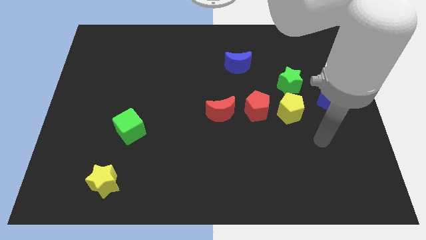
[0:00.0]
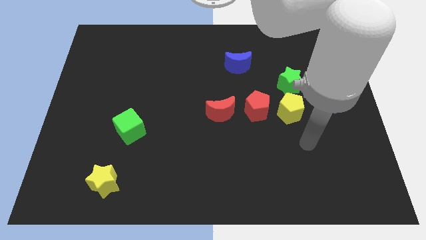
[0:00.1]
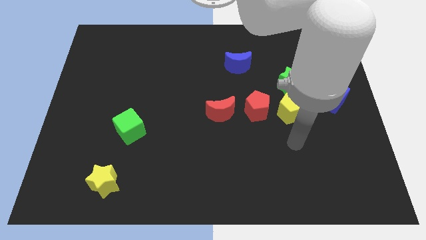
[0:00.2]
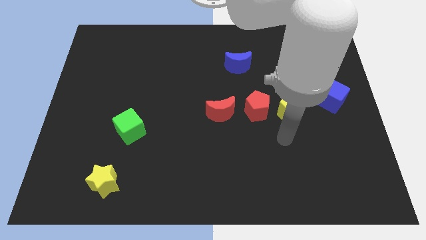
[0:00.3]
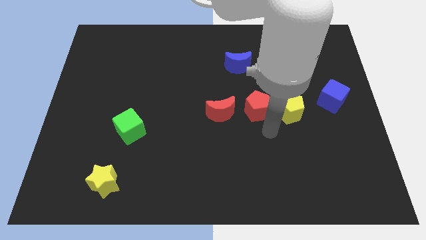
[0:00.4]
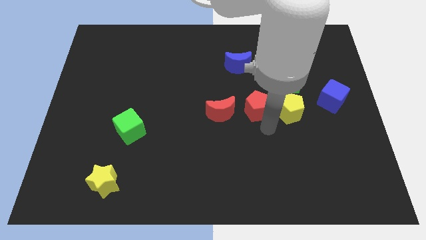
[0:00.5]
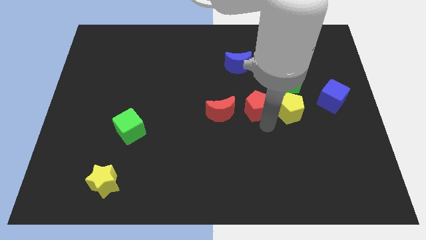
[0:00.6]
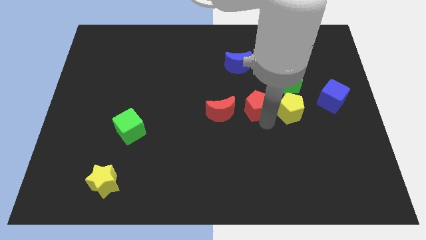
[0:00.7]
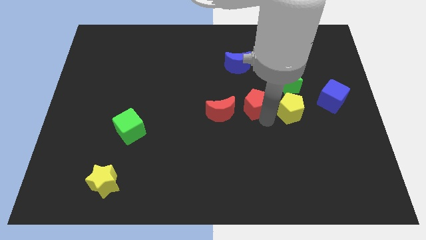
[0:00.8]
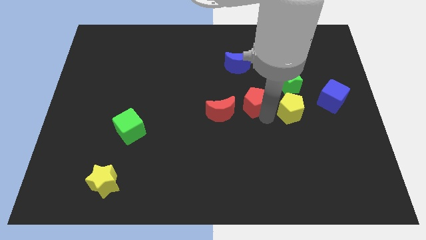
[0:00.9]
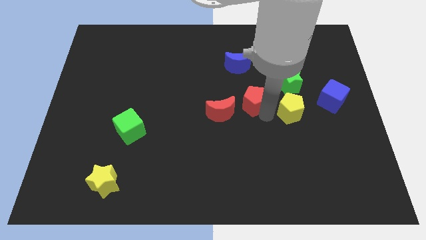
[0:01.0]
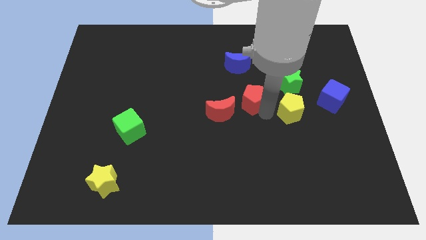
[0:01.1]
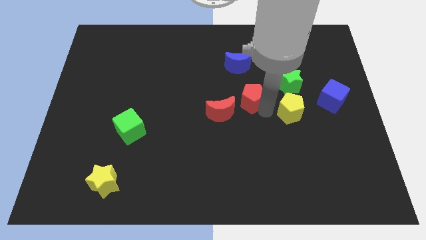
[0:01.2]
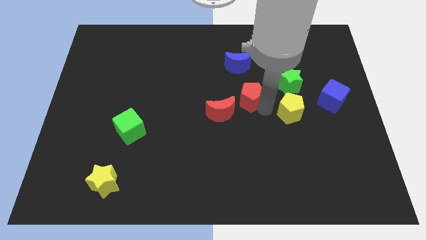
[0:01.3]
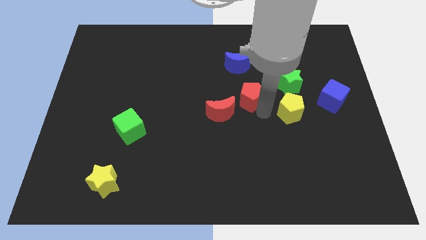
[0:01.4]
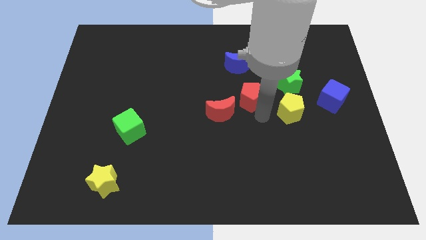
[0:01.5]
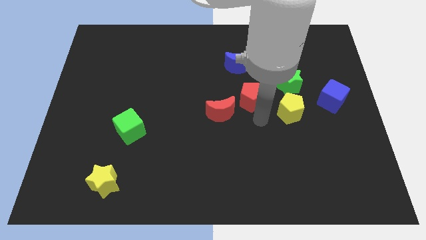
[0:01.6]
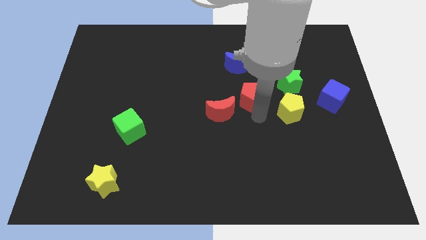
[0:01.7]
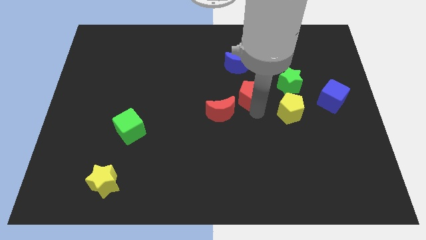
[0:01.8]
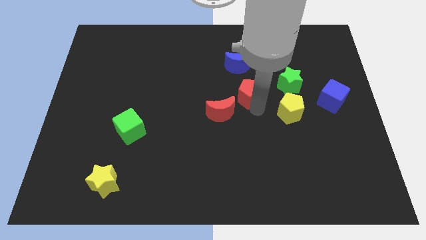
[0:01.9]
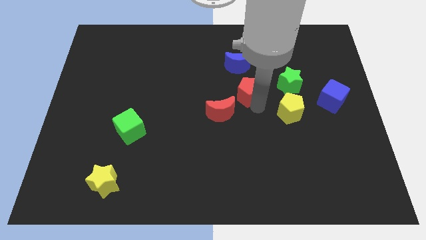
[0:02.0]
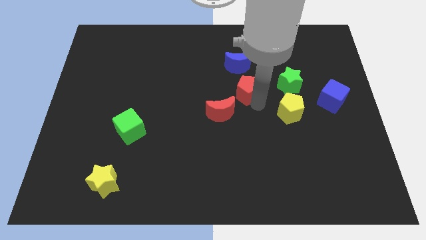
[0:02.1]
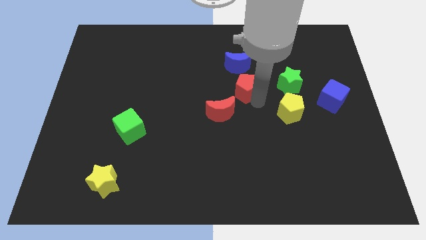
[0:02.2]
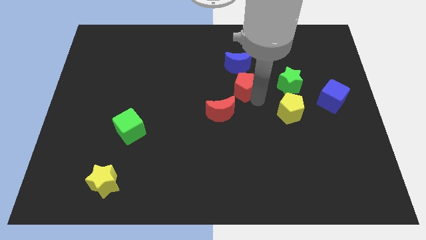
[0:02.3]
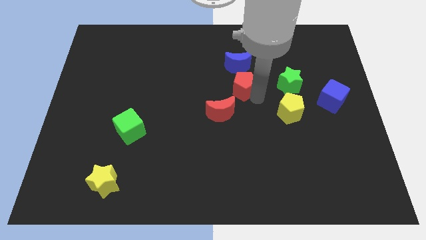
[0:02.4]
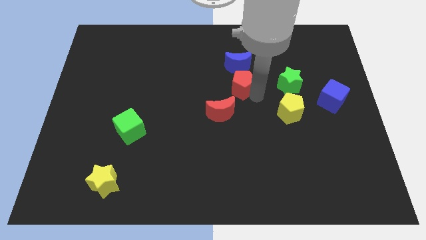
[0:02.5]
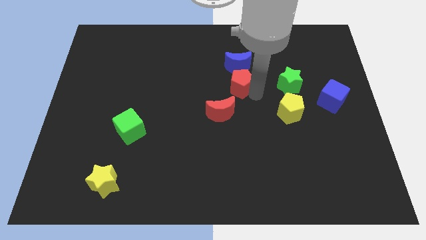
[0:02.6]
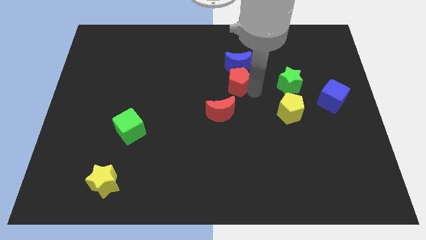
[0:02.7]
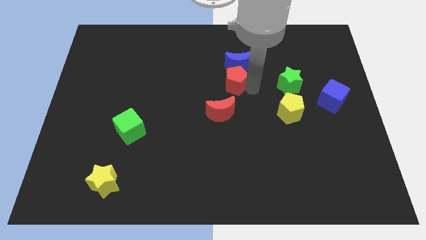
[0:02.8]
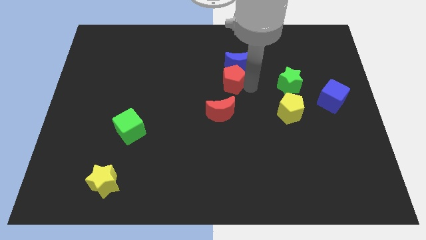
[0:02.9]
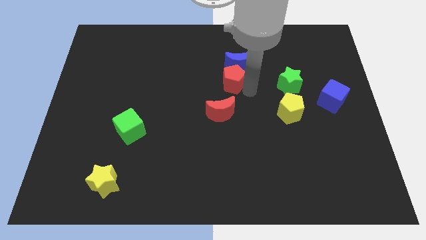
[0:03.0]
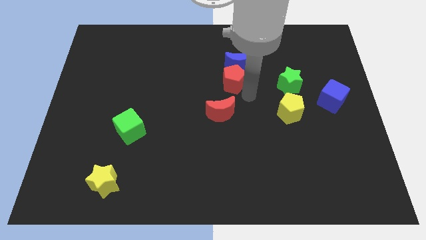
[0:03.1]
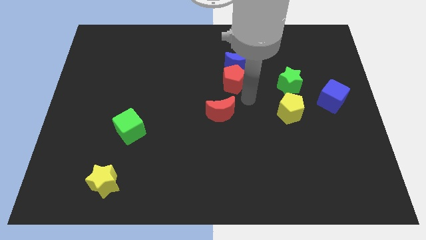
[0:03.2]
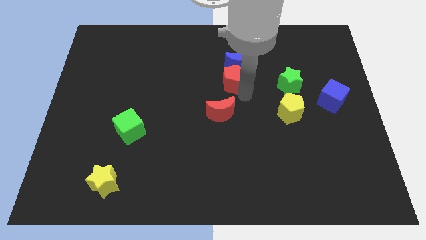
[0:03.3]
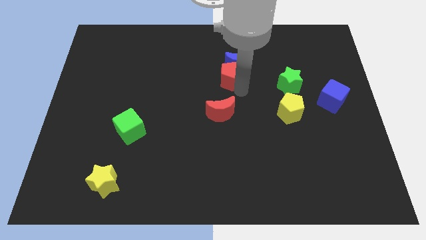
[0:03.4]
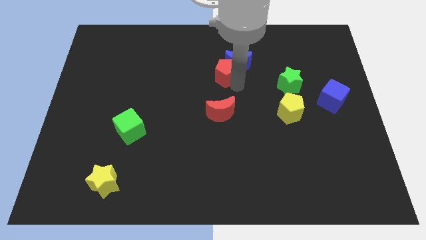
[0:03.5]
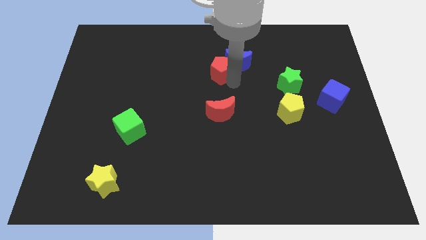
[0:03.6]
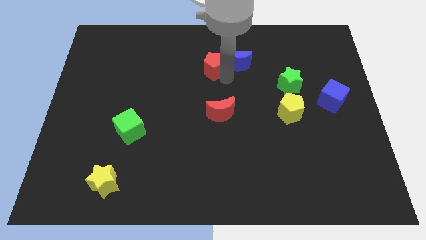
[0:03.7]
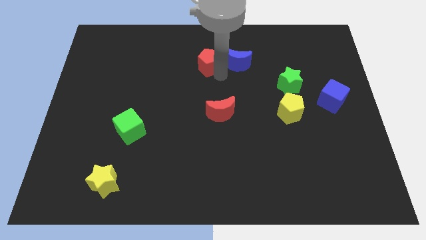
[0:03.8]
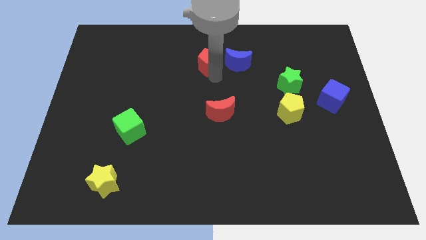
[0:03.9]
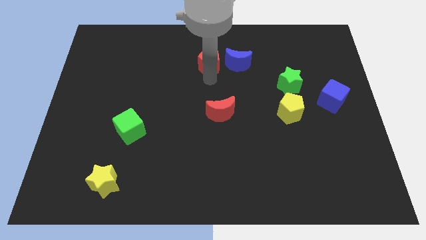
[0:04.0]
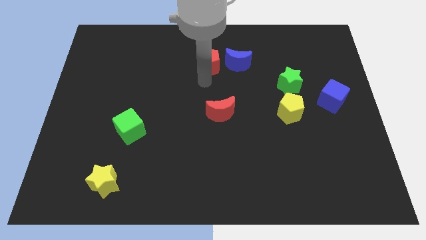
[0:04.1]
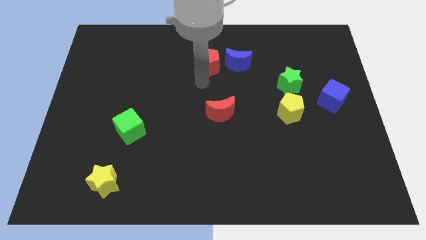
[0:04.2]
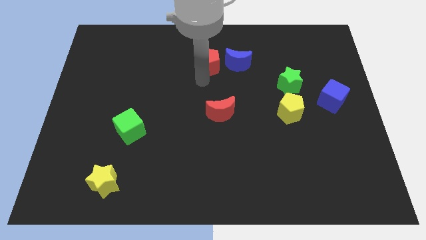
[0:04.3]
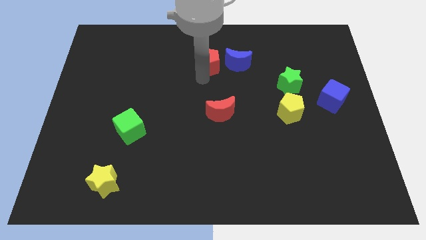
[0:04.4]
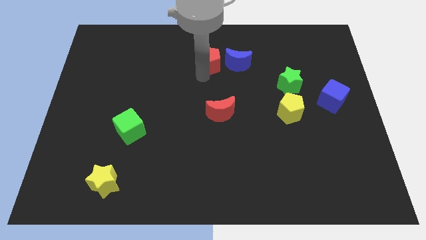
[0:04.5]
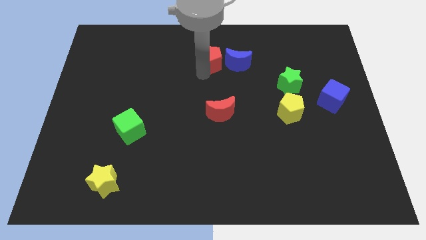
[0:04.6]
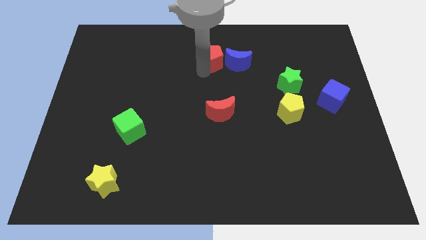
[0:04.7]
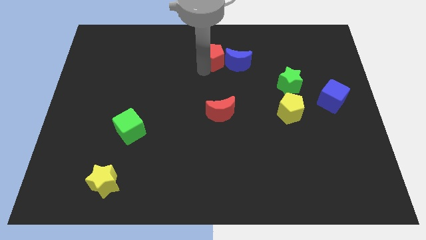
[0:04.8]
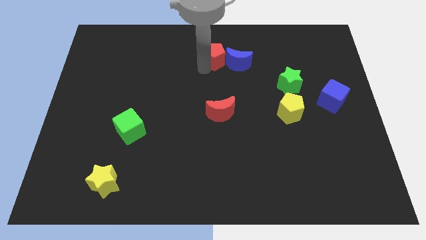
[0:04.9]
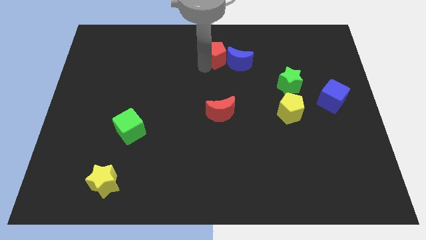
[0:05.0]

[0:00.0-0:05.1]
push the red pentagon to the top side
